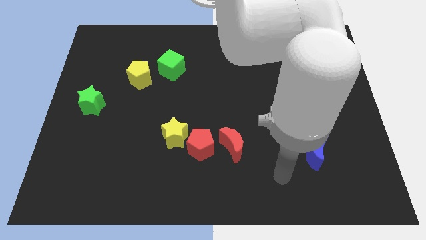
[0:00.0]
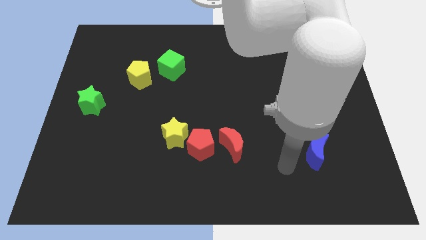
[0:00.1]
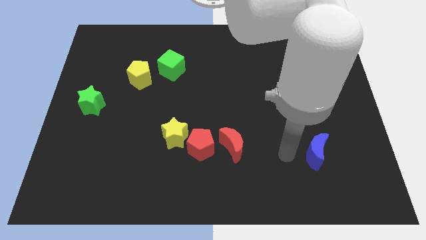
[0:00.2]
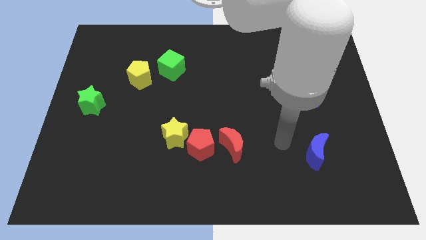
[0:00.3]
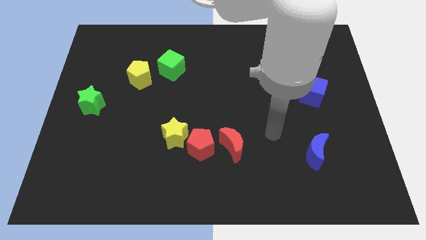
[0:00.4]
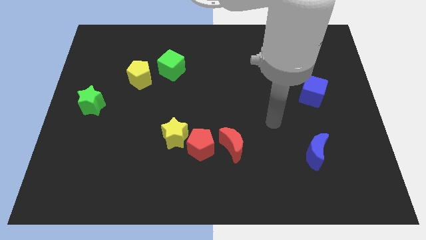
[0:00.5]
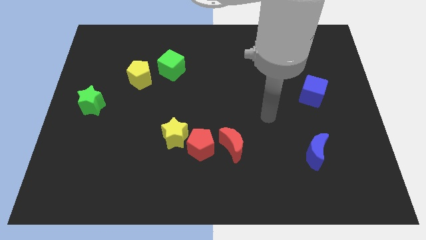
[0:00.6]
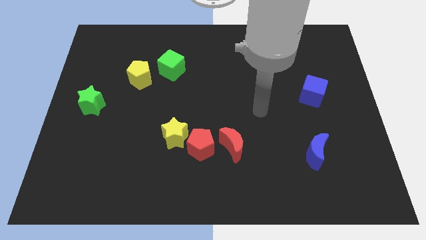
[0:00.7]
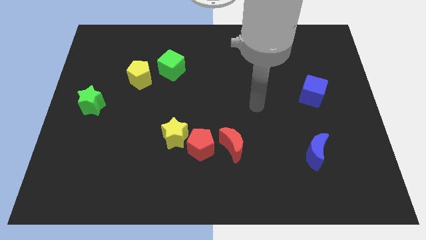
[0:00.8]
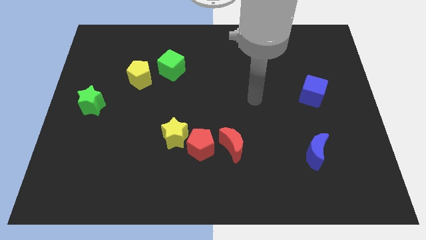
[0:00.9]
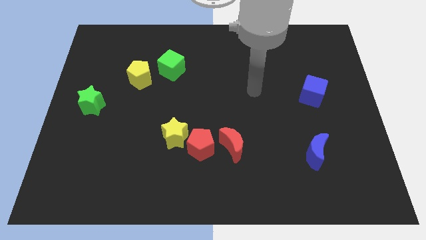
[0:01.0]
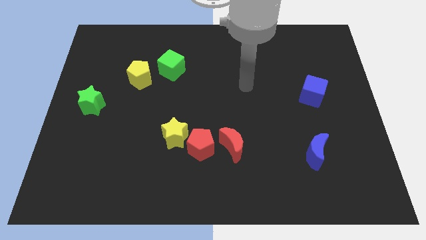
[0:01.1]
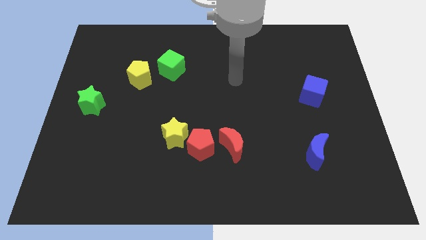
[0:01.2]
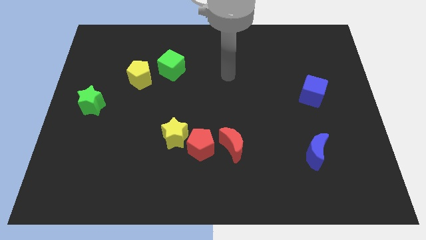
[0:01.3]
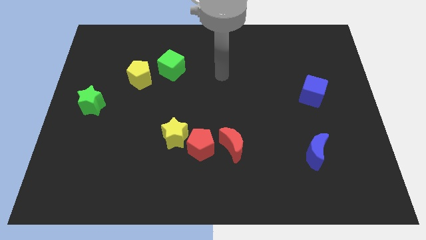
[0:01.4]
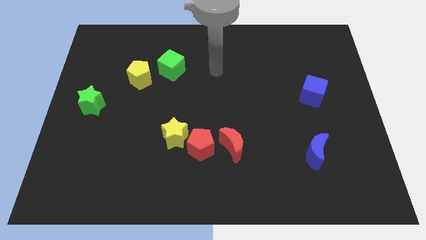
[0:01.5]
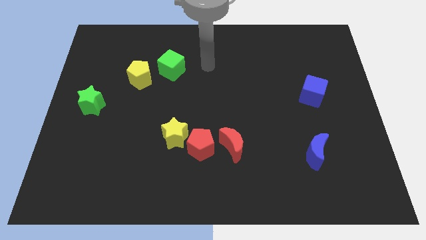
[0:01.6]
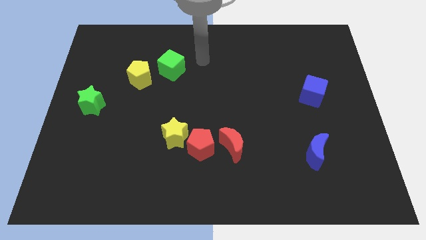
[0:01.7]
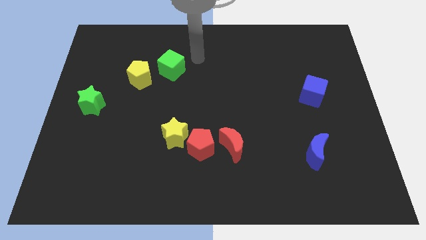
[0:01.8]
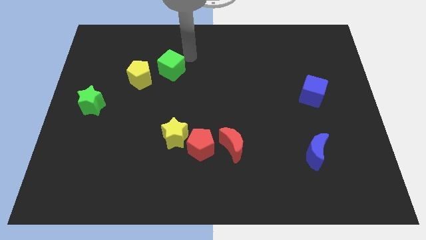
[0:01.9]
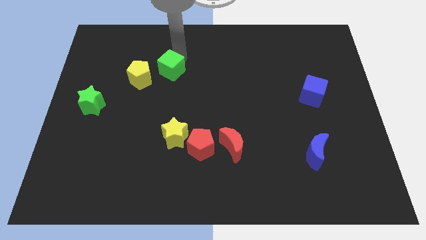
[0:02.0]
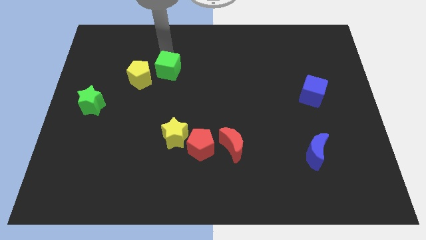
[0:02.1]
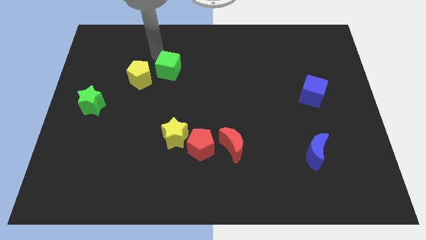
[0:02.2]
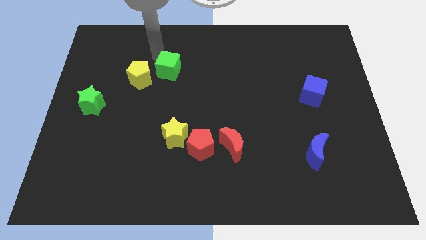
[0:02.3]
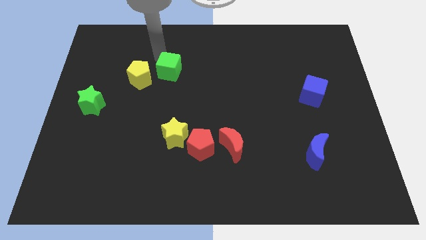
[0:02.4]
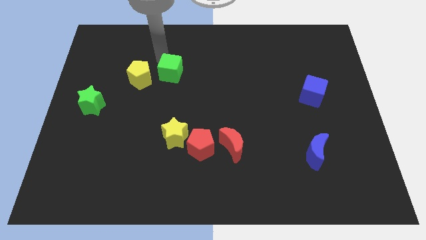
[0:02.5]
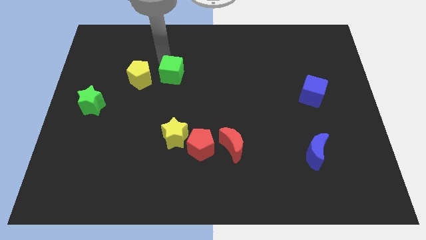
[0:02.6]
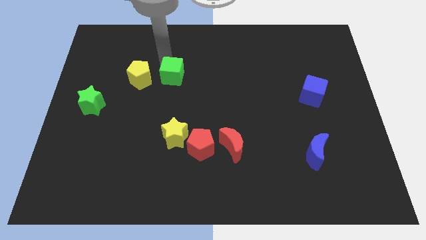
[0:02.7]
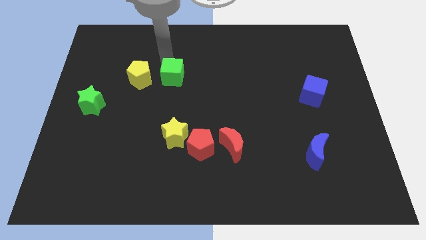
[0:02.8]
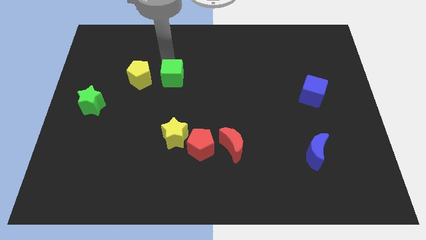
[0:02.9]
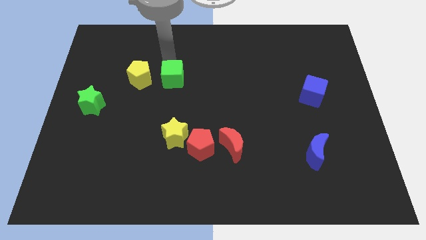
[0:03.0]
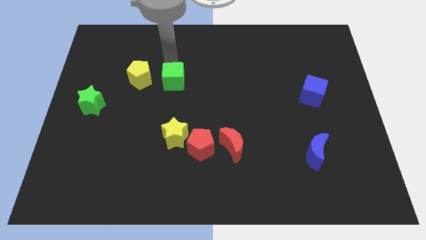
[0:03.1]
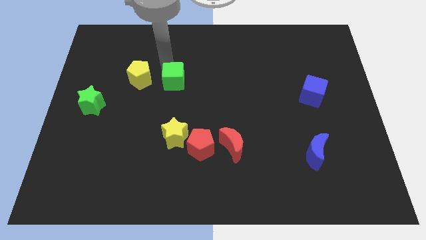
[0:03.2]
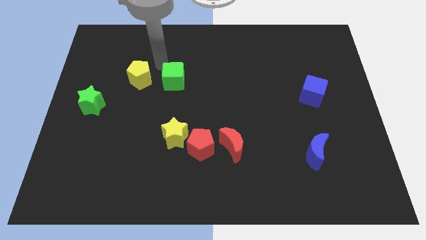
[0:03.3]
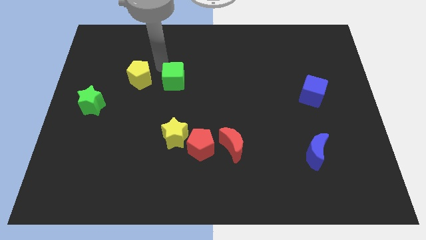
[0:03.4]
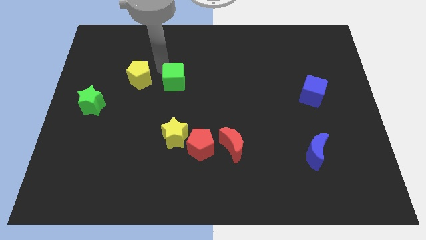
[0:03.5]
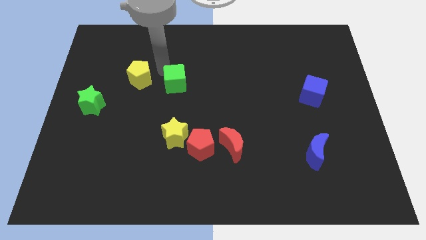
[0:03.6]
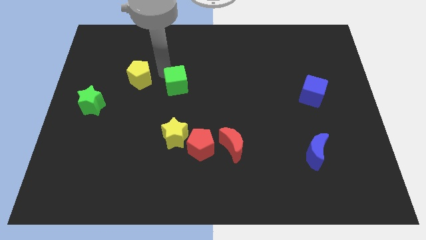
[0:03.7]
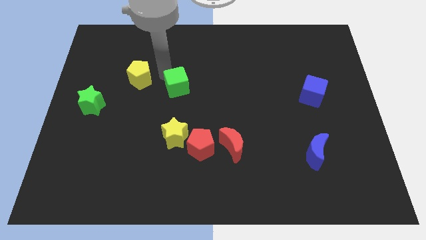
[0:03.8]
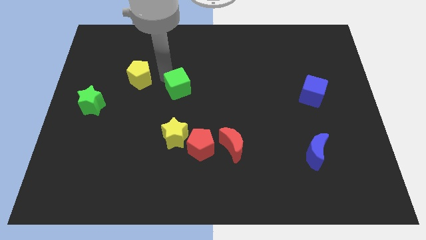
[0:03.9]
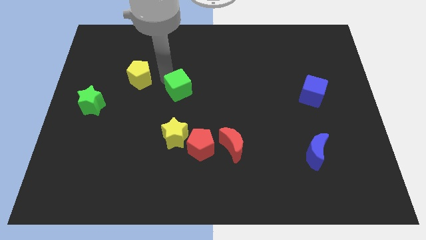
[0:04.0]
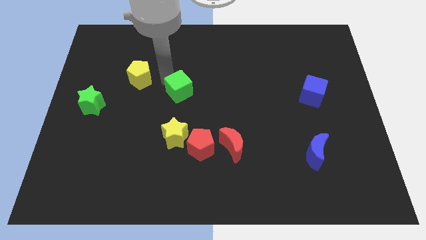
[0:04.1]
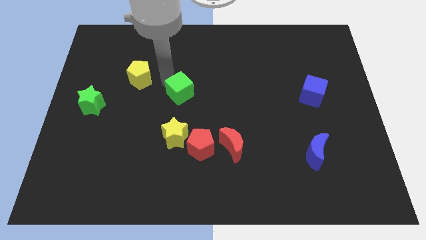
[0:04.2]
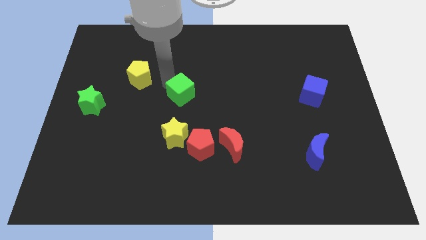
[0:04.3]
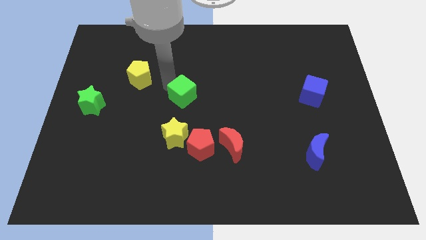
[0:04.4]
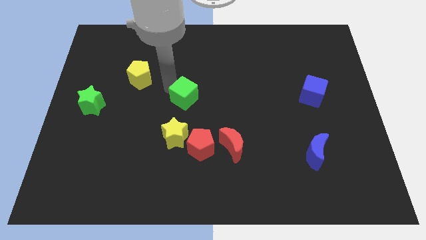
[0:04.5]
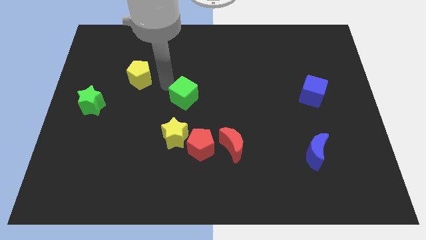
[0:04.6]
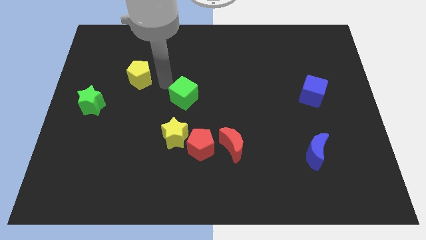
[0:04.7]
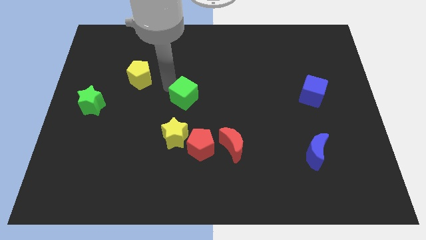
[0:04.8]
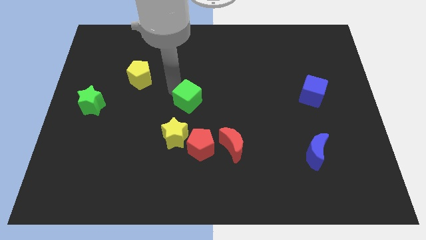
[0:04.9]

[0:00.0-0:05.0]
push the green cube to the top of the red pentagon

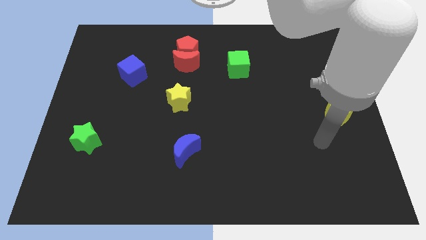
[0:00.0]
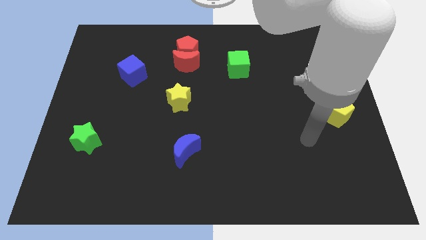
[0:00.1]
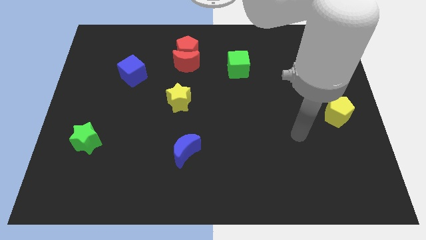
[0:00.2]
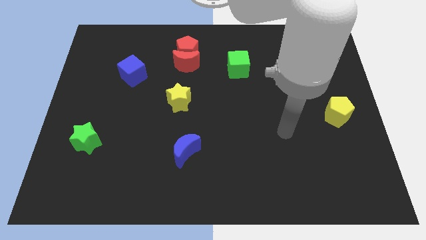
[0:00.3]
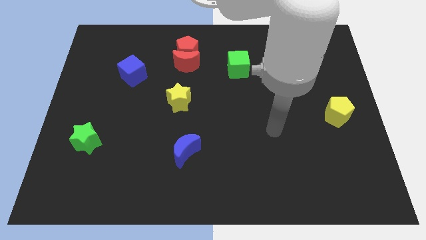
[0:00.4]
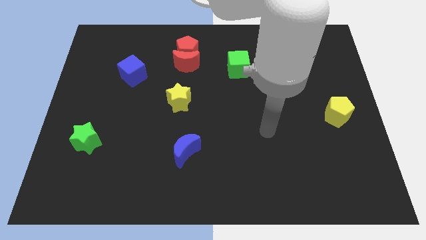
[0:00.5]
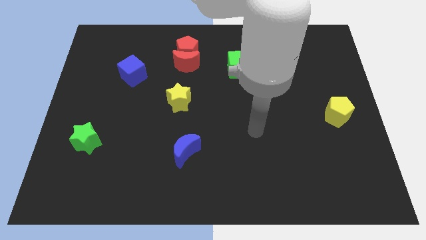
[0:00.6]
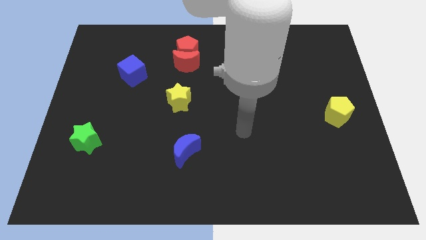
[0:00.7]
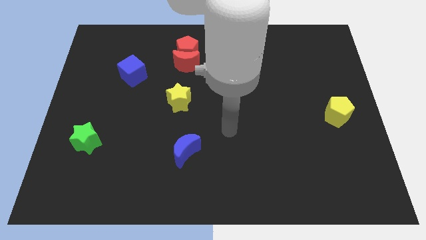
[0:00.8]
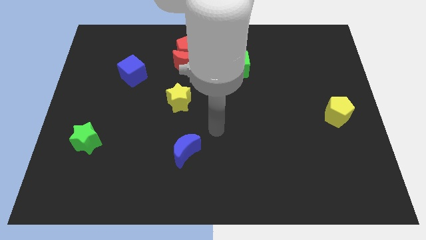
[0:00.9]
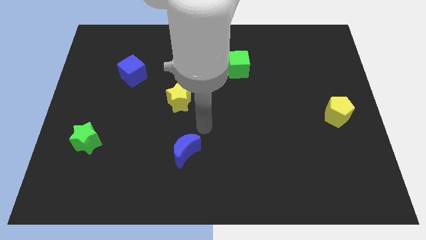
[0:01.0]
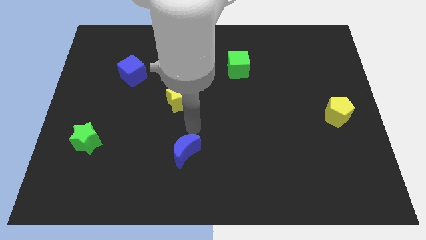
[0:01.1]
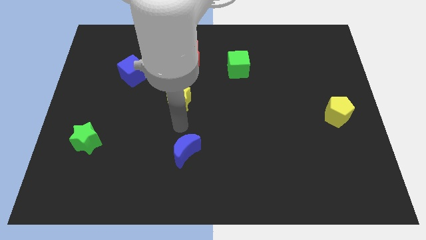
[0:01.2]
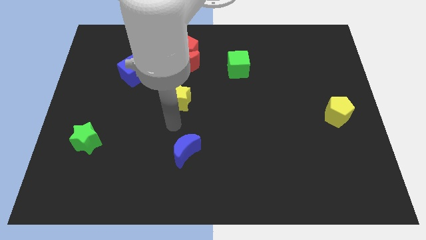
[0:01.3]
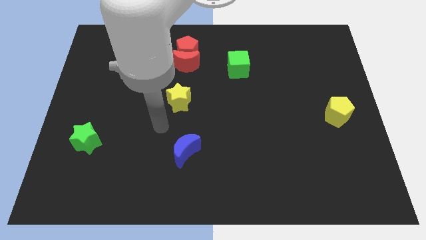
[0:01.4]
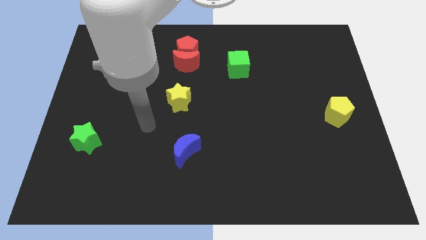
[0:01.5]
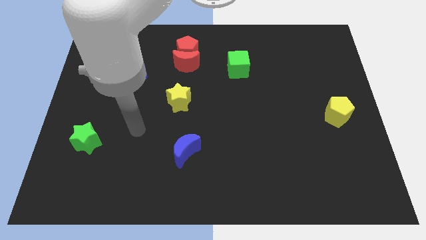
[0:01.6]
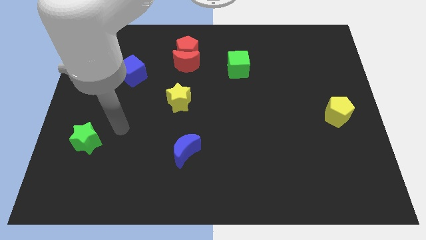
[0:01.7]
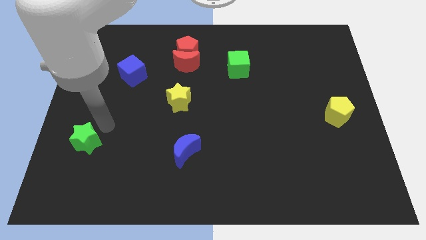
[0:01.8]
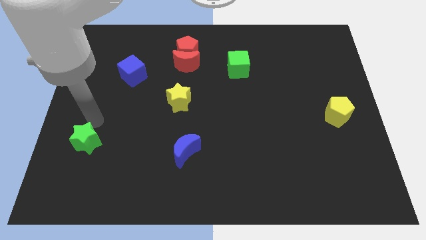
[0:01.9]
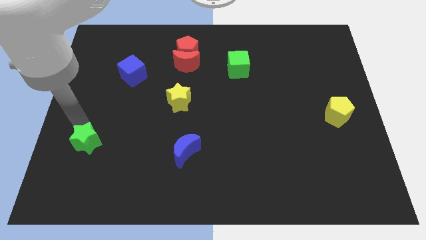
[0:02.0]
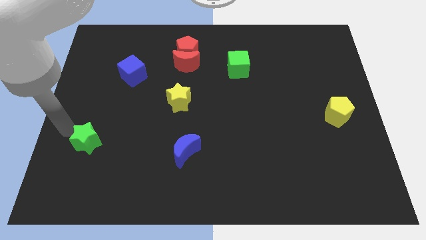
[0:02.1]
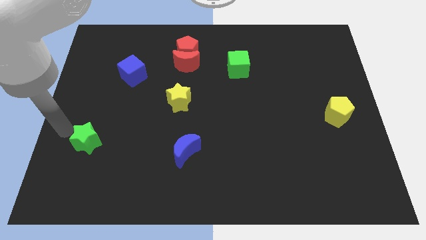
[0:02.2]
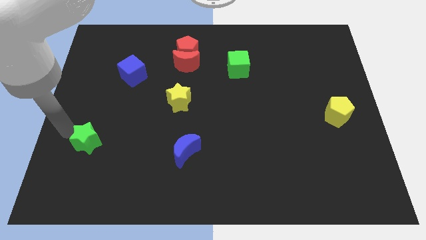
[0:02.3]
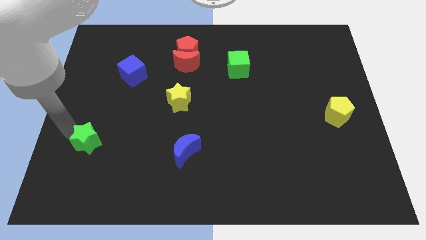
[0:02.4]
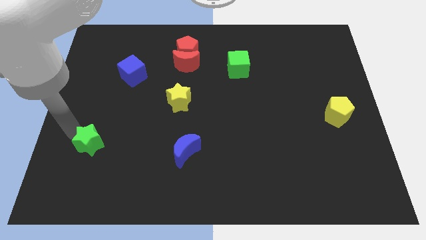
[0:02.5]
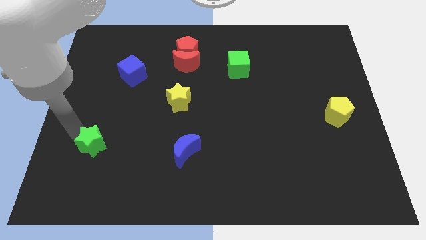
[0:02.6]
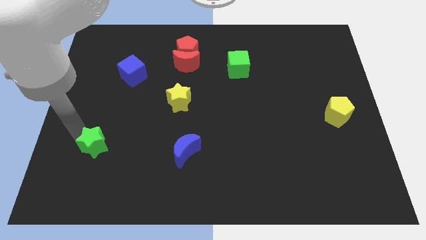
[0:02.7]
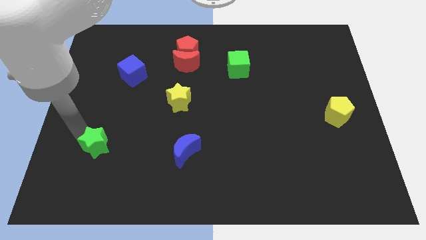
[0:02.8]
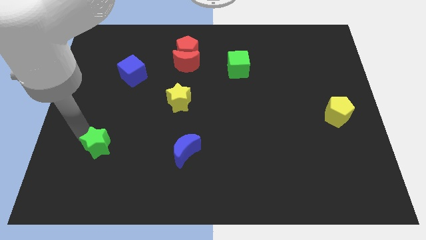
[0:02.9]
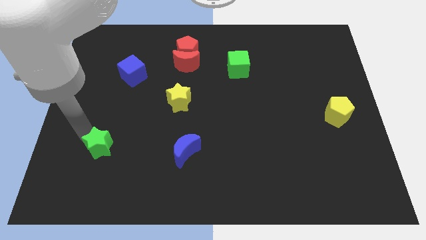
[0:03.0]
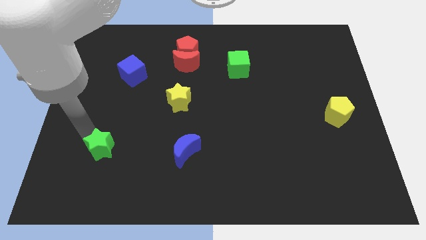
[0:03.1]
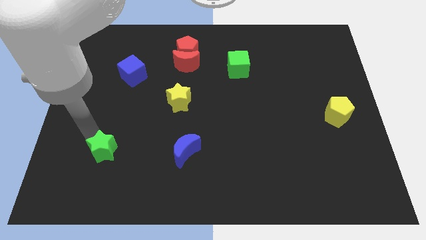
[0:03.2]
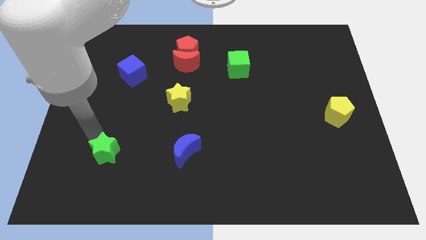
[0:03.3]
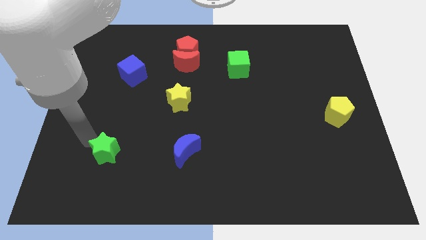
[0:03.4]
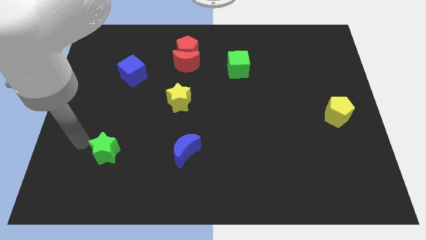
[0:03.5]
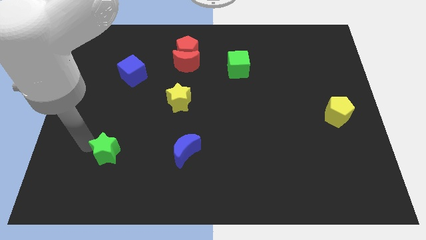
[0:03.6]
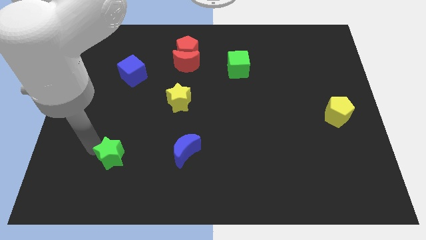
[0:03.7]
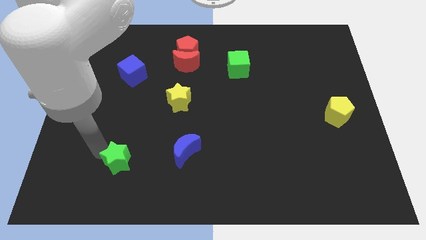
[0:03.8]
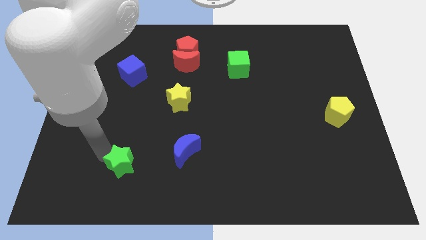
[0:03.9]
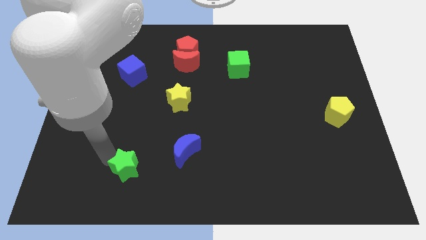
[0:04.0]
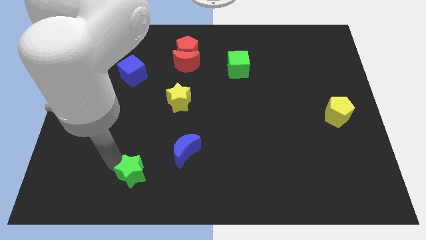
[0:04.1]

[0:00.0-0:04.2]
put the green star diagonally down and to the left of the blue moon
